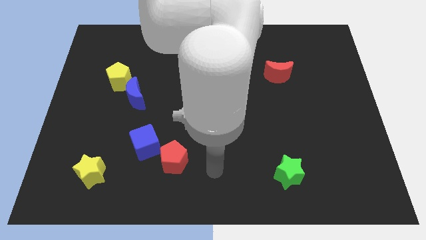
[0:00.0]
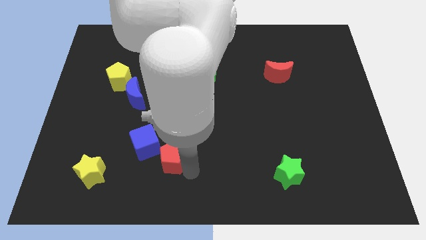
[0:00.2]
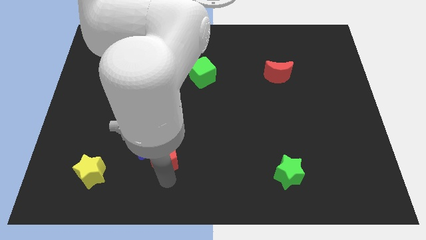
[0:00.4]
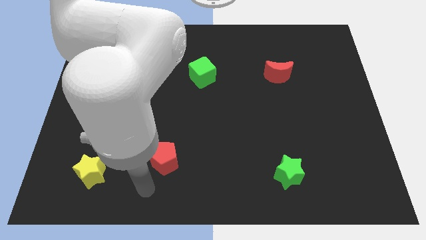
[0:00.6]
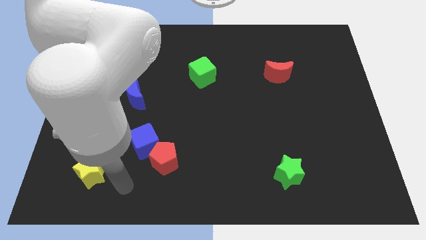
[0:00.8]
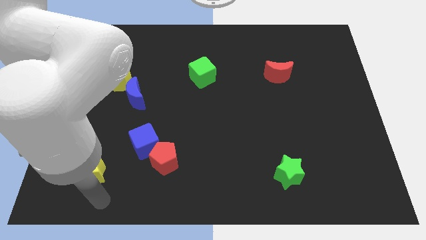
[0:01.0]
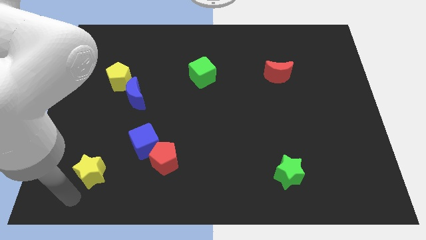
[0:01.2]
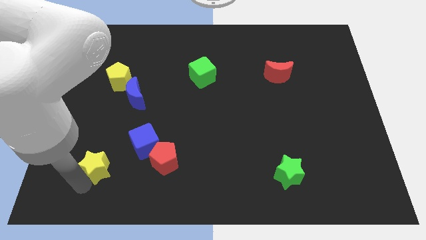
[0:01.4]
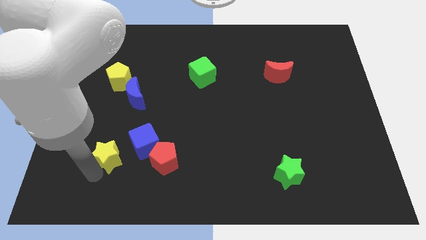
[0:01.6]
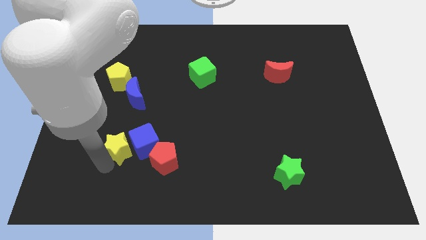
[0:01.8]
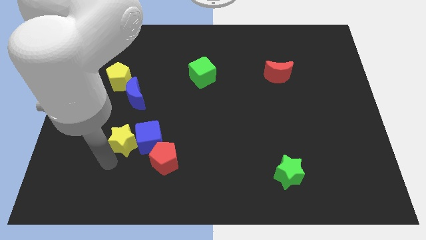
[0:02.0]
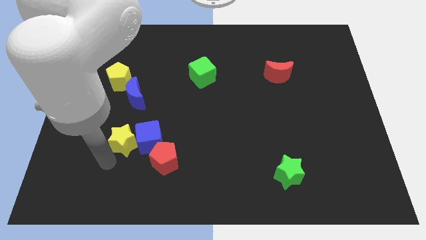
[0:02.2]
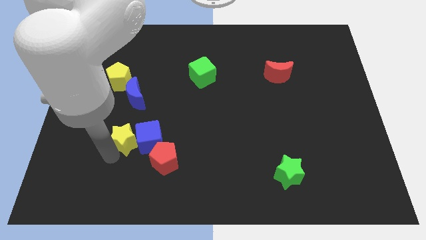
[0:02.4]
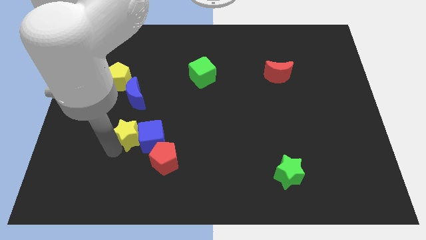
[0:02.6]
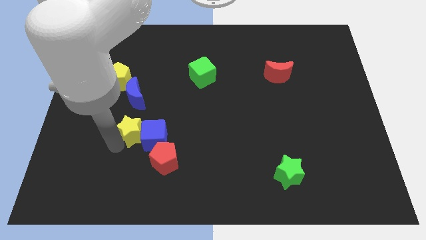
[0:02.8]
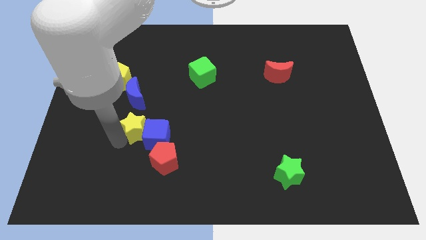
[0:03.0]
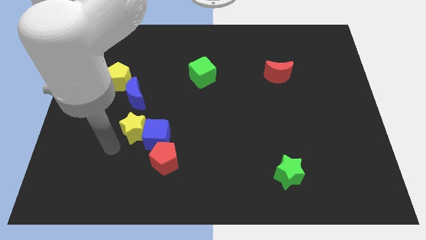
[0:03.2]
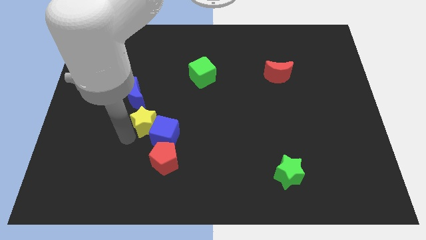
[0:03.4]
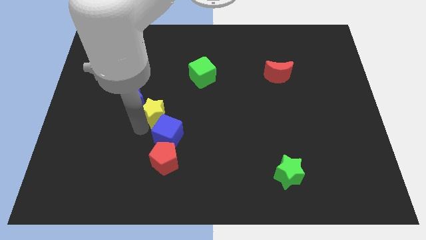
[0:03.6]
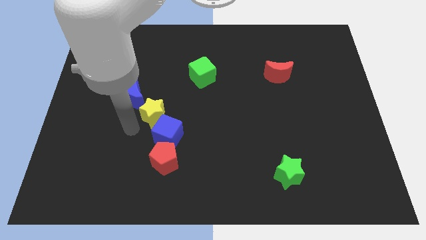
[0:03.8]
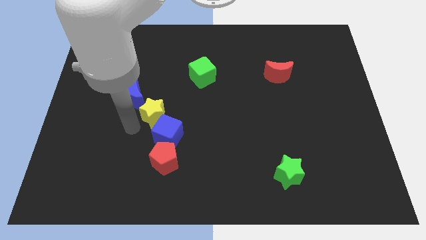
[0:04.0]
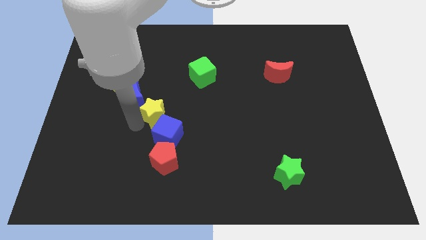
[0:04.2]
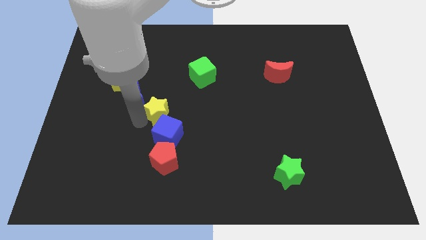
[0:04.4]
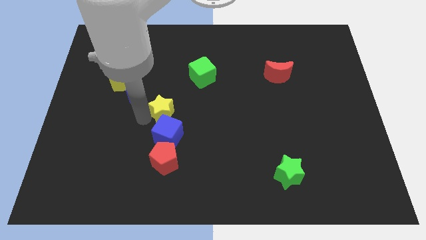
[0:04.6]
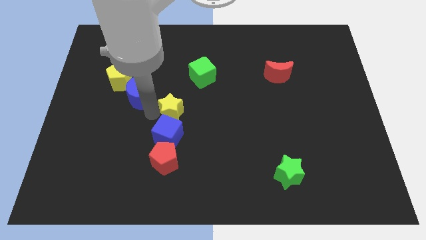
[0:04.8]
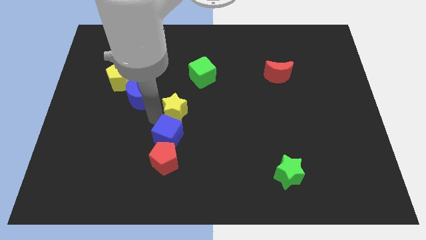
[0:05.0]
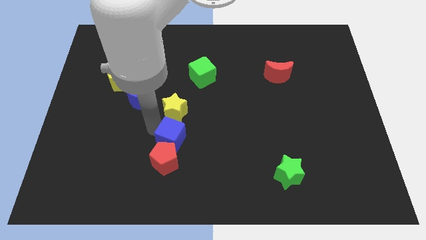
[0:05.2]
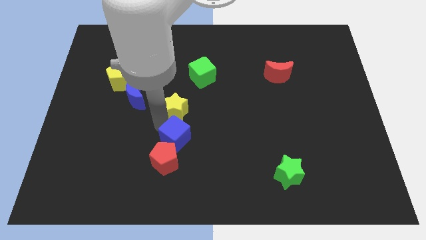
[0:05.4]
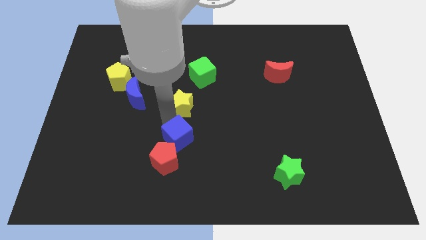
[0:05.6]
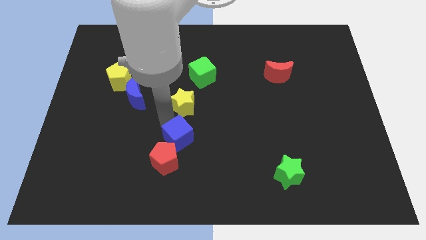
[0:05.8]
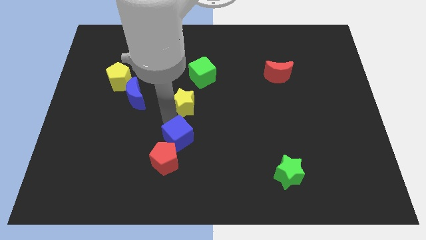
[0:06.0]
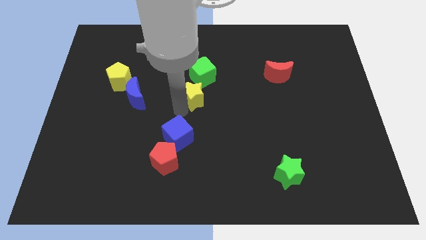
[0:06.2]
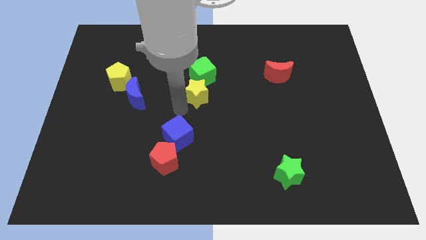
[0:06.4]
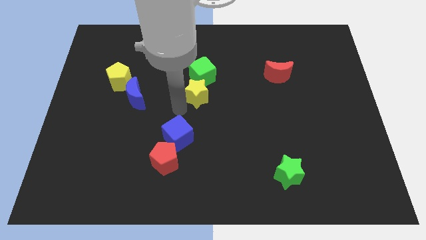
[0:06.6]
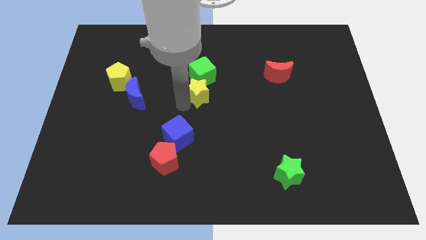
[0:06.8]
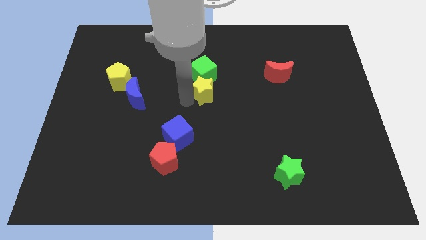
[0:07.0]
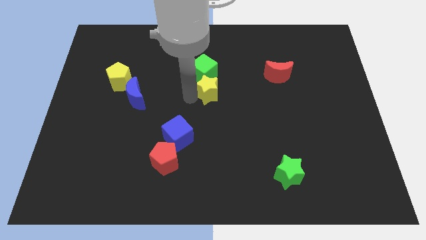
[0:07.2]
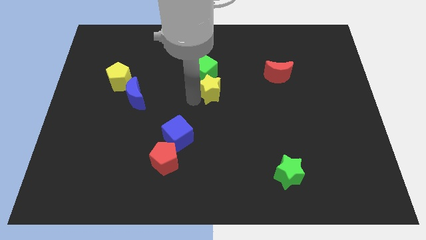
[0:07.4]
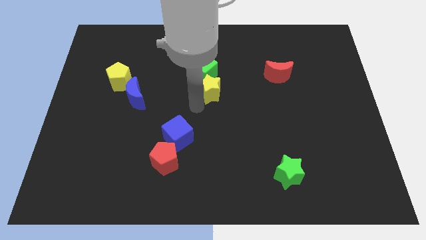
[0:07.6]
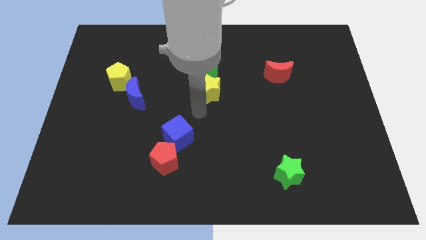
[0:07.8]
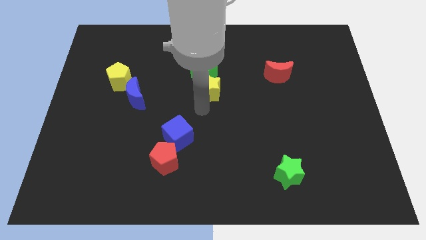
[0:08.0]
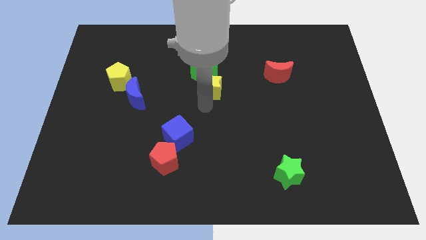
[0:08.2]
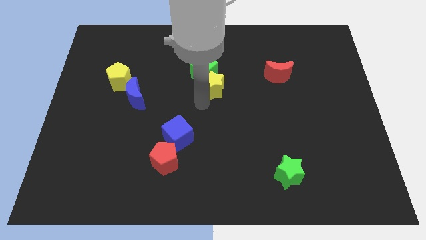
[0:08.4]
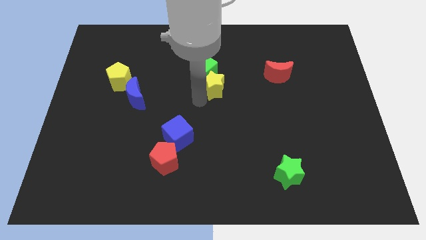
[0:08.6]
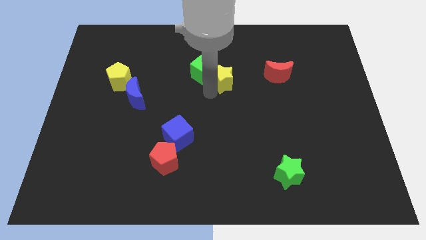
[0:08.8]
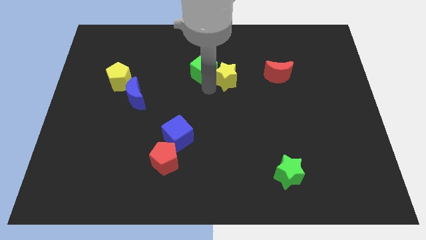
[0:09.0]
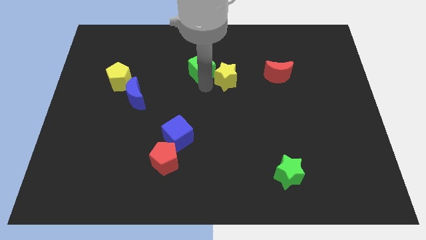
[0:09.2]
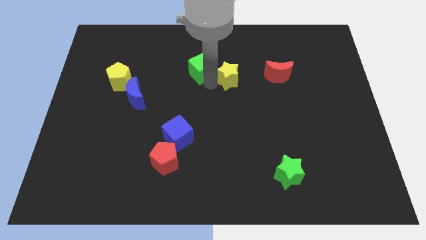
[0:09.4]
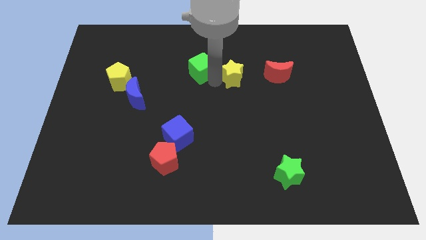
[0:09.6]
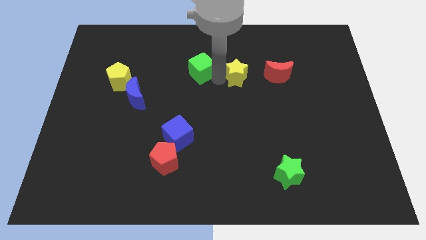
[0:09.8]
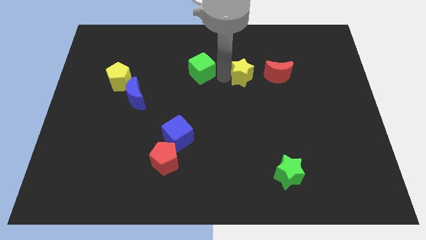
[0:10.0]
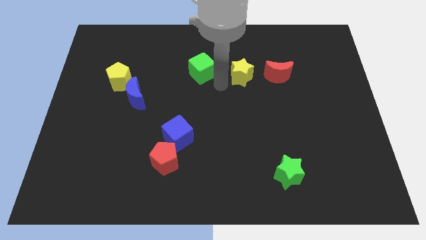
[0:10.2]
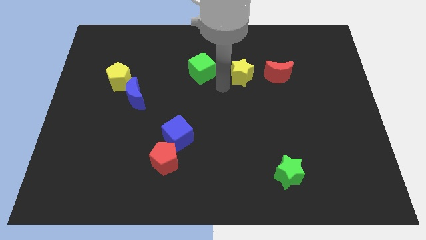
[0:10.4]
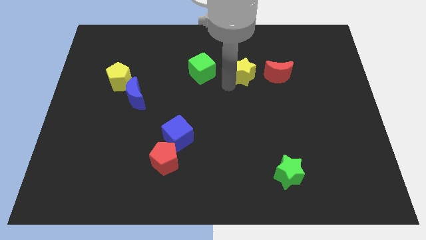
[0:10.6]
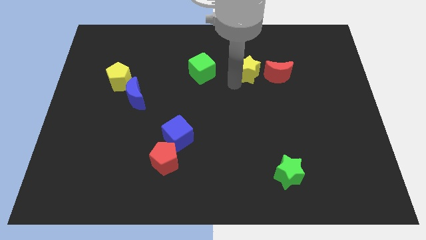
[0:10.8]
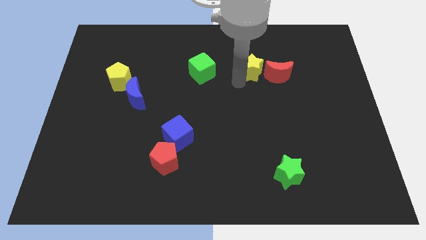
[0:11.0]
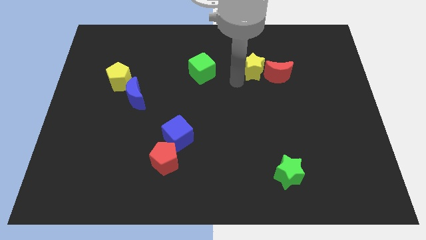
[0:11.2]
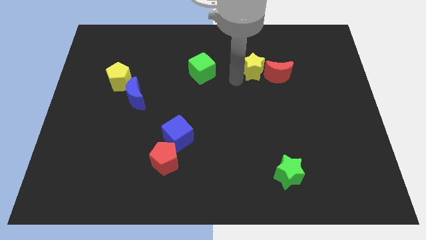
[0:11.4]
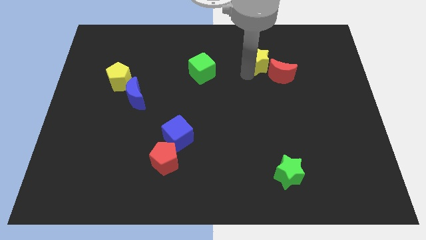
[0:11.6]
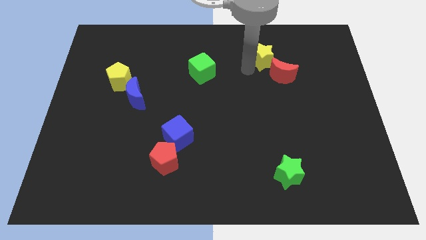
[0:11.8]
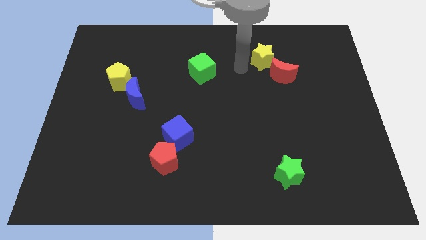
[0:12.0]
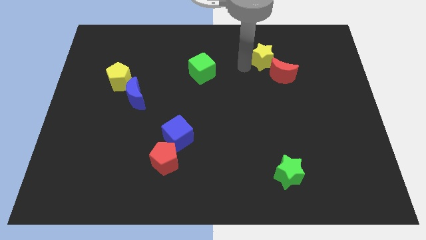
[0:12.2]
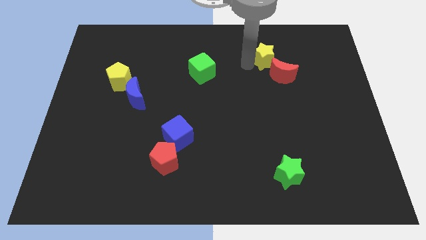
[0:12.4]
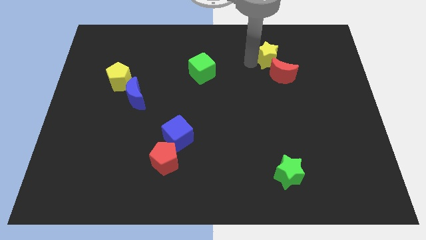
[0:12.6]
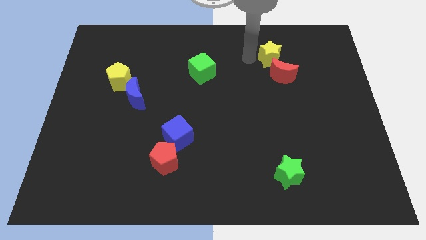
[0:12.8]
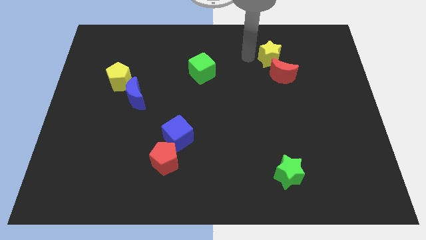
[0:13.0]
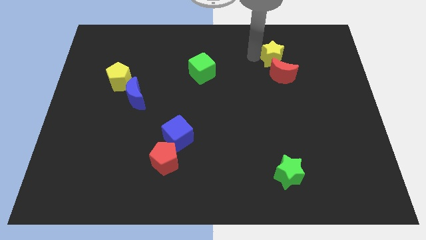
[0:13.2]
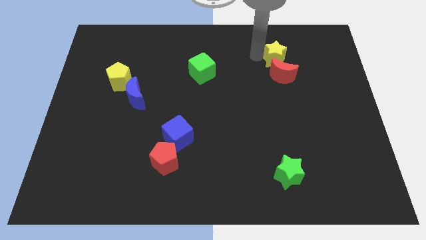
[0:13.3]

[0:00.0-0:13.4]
slide the yellow star diagonally up and to the right of the red moon

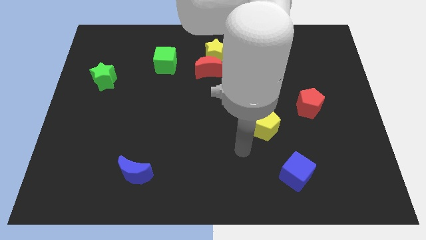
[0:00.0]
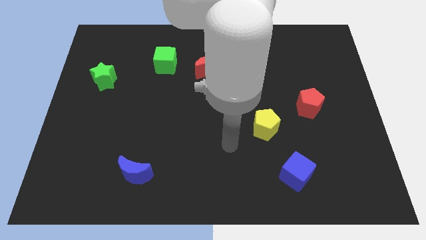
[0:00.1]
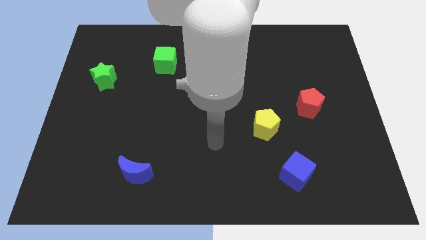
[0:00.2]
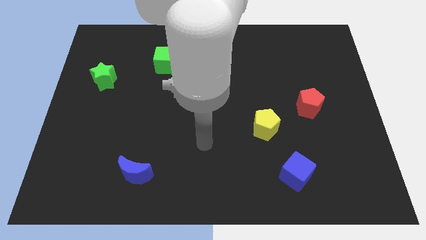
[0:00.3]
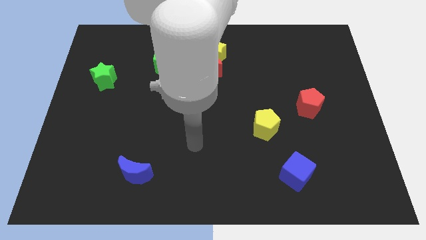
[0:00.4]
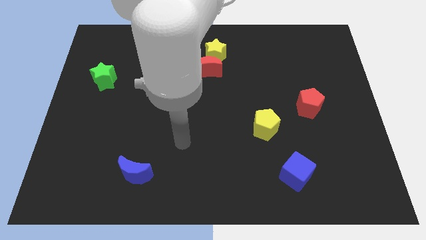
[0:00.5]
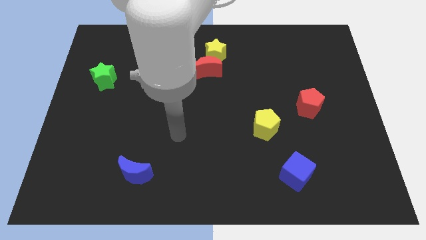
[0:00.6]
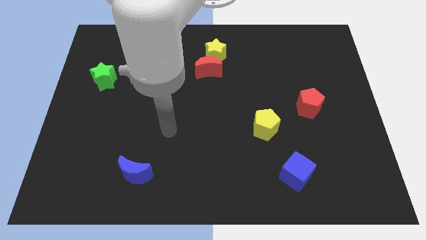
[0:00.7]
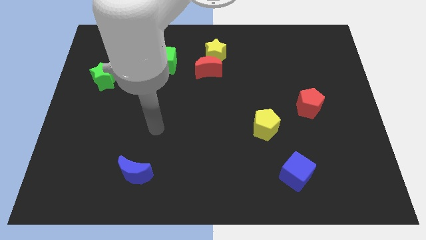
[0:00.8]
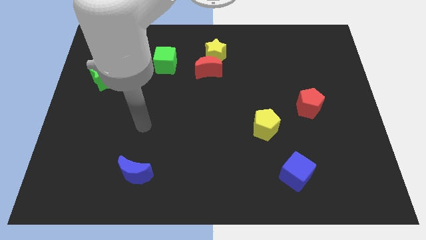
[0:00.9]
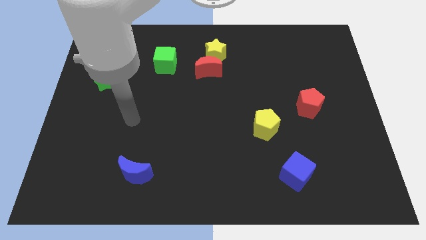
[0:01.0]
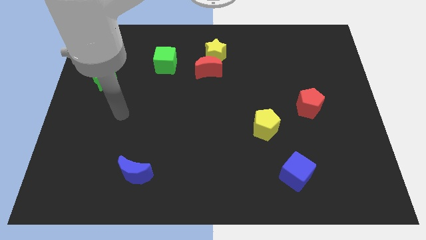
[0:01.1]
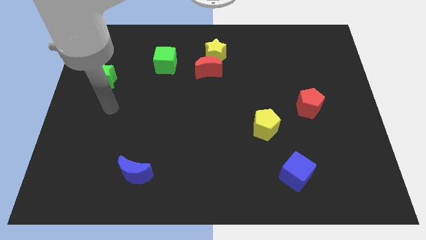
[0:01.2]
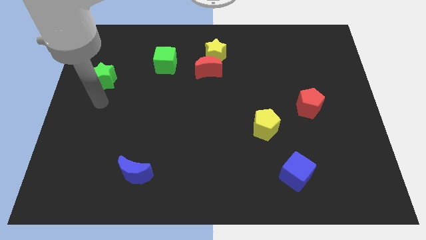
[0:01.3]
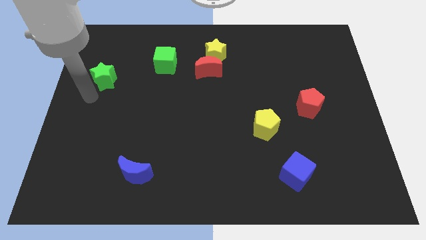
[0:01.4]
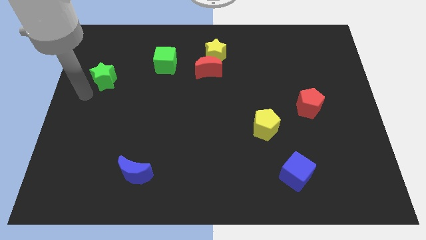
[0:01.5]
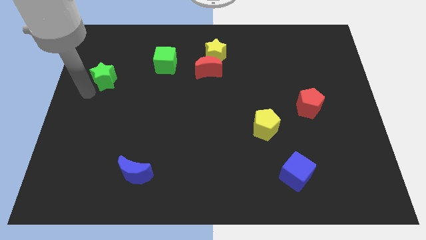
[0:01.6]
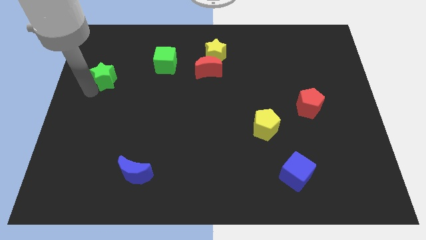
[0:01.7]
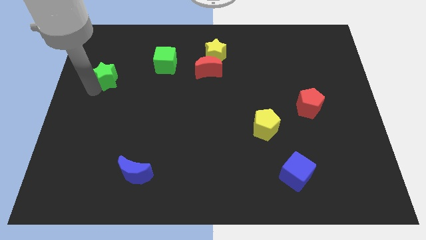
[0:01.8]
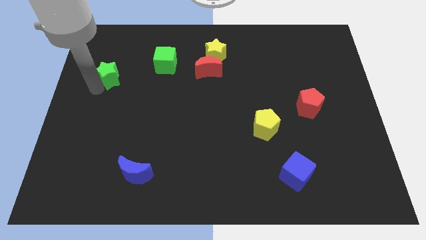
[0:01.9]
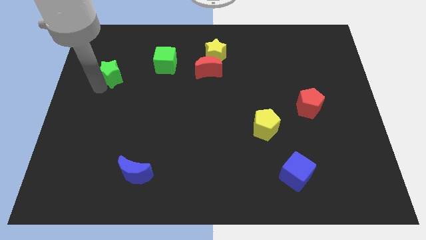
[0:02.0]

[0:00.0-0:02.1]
put the green star to the left side of the green cube
